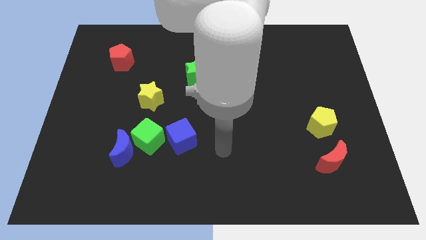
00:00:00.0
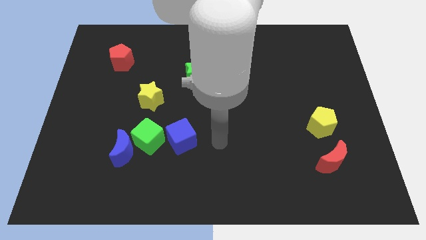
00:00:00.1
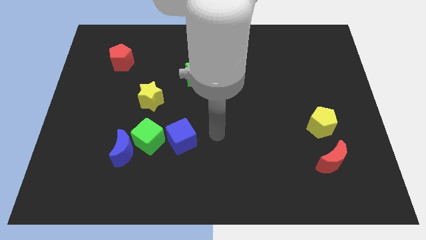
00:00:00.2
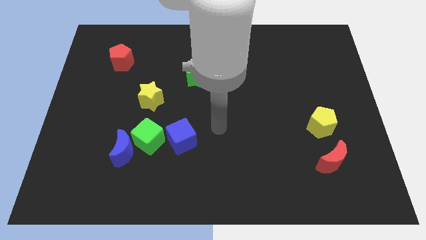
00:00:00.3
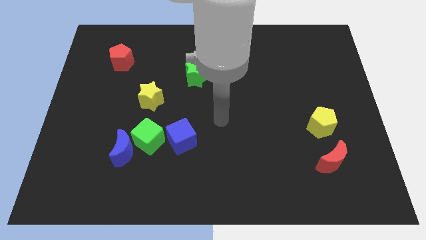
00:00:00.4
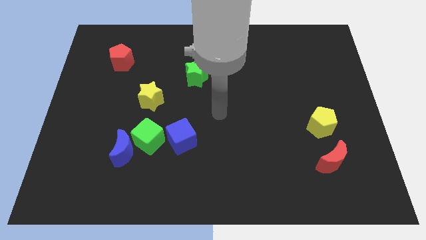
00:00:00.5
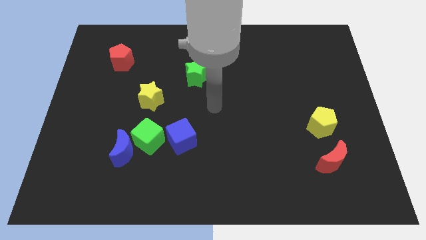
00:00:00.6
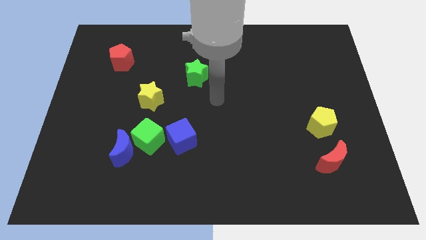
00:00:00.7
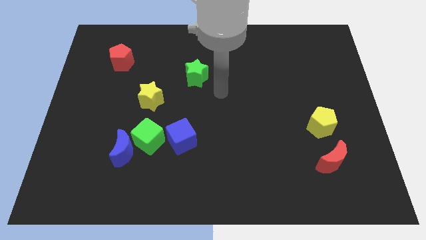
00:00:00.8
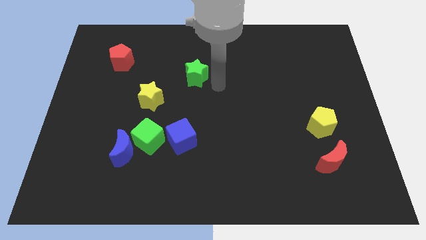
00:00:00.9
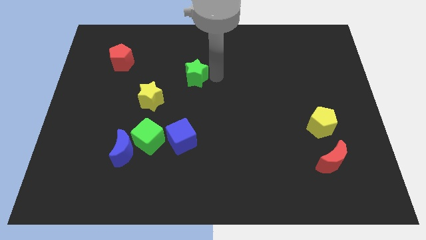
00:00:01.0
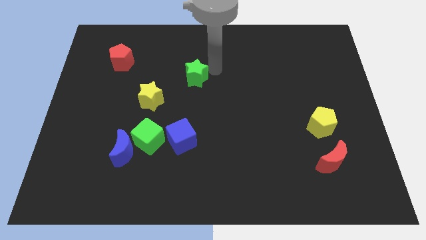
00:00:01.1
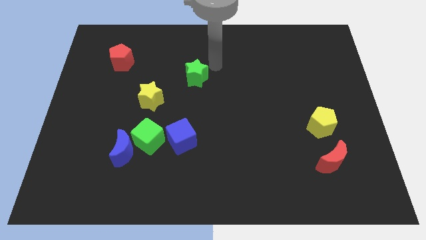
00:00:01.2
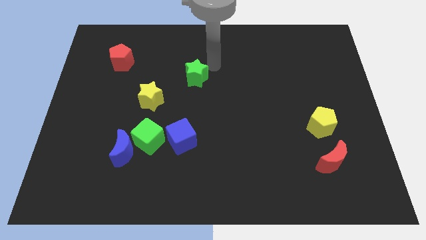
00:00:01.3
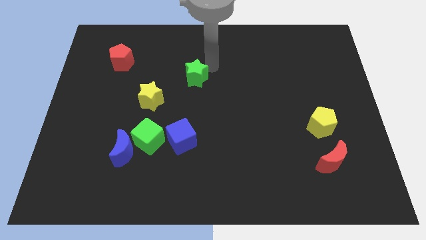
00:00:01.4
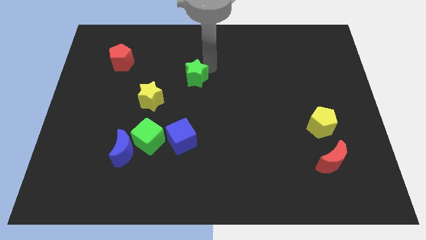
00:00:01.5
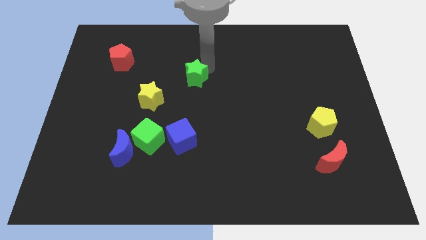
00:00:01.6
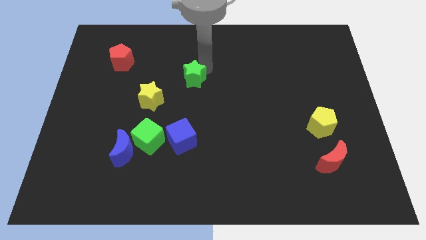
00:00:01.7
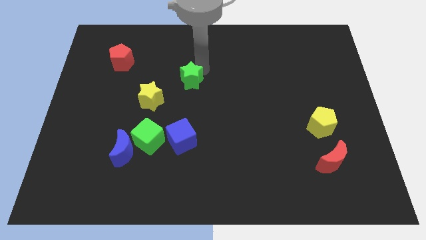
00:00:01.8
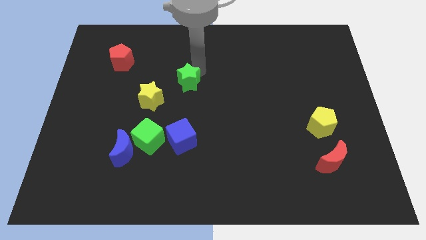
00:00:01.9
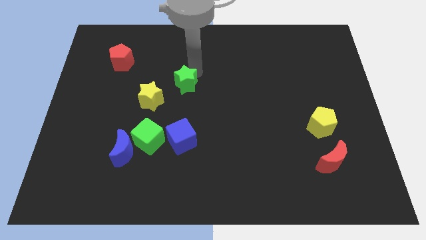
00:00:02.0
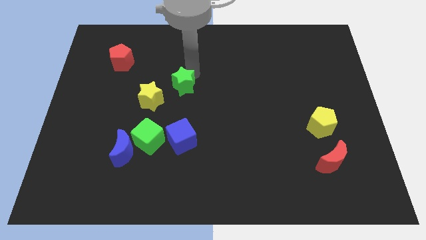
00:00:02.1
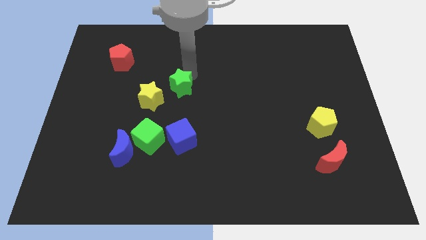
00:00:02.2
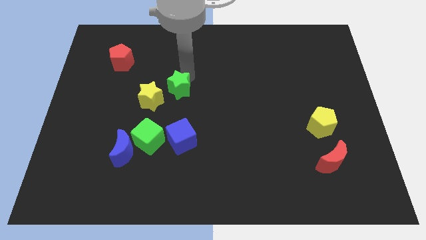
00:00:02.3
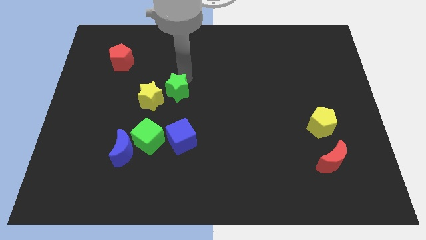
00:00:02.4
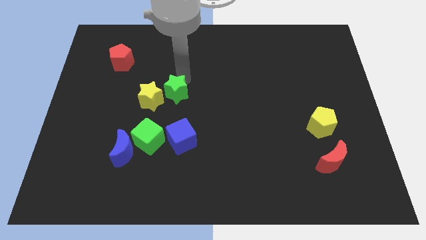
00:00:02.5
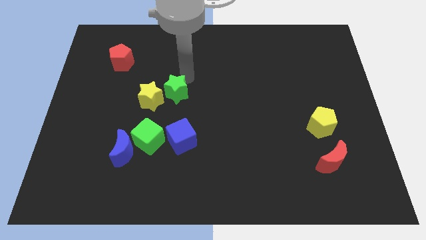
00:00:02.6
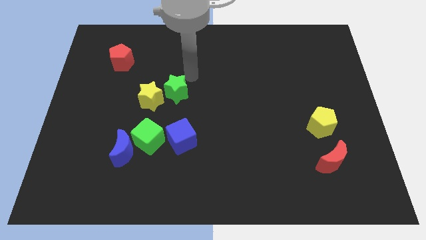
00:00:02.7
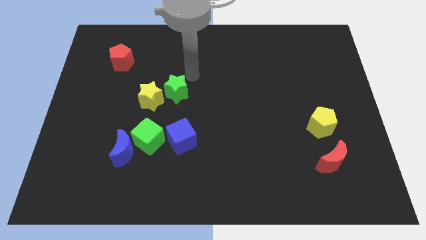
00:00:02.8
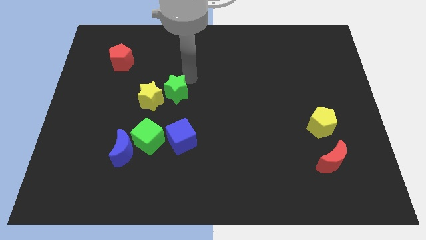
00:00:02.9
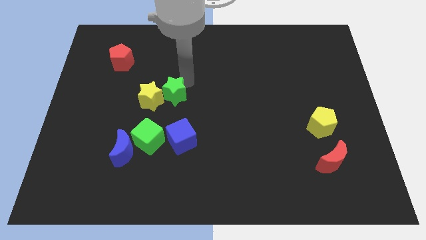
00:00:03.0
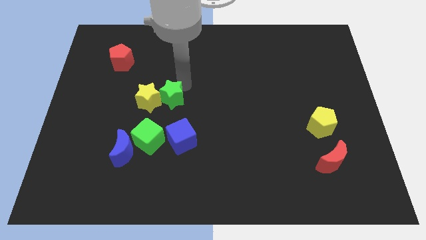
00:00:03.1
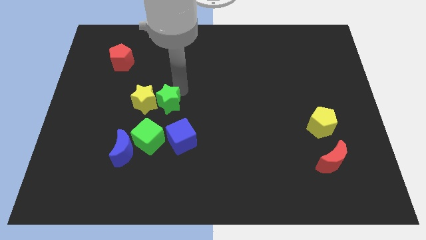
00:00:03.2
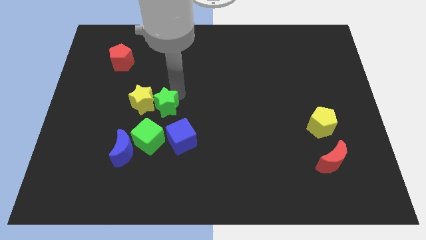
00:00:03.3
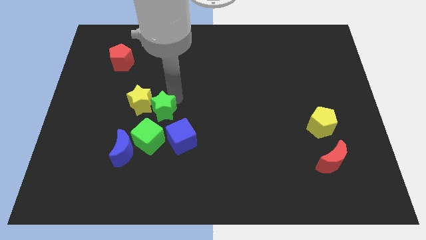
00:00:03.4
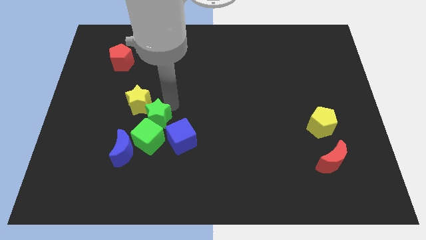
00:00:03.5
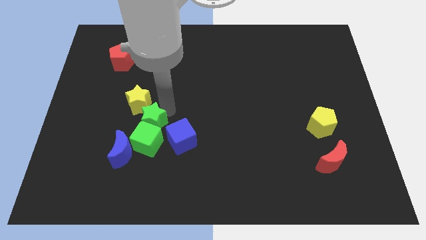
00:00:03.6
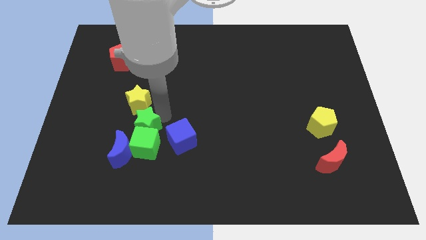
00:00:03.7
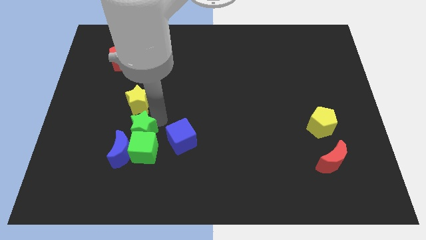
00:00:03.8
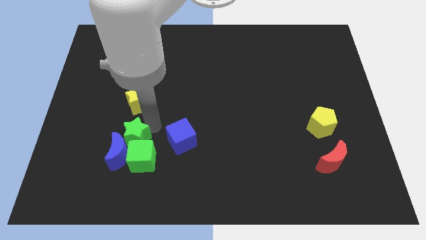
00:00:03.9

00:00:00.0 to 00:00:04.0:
slide the green star down and left diagonally

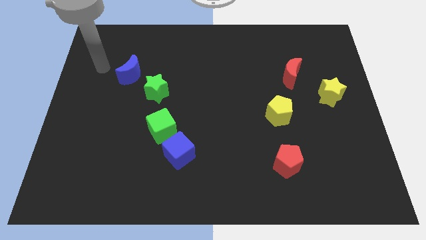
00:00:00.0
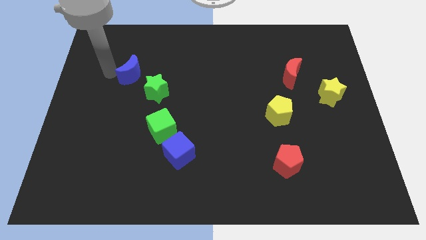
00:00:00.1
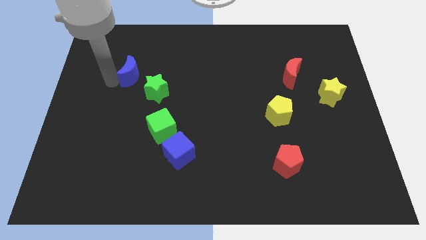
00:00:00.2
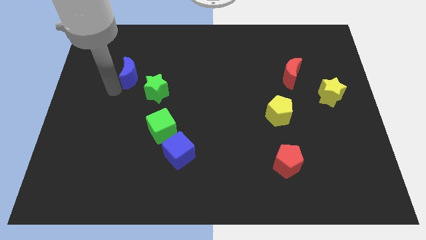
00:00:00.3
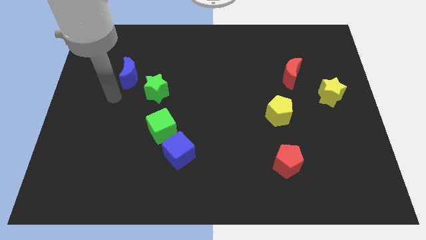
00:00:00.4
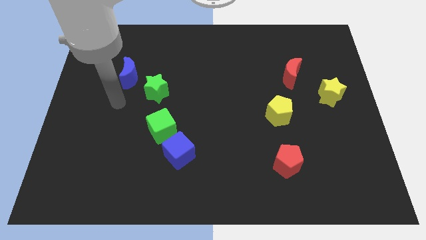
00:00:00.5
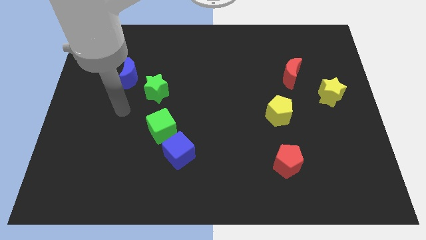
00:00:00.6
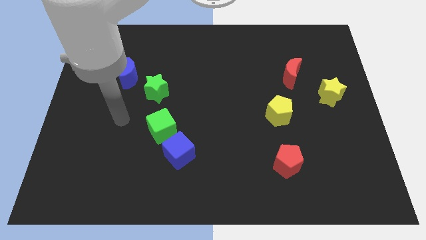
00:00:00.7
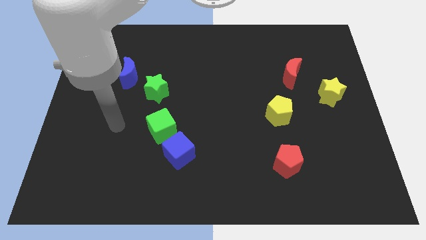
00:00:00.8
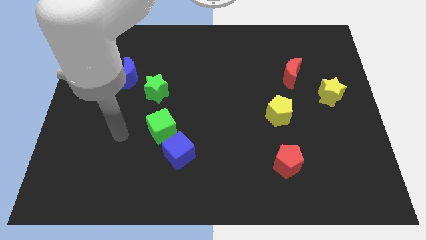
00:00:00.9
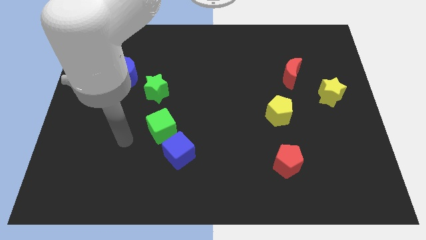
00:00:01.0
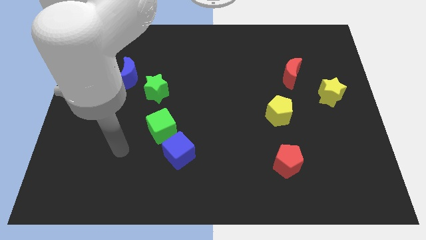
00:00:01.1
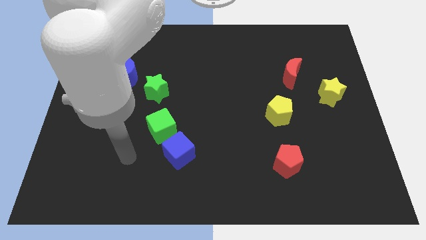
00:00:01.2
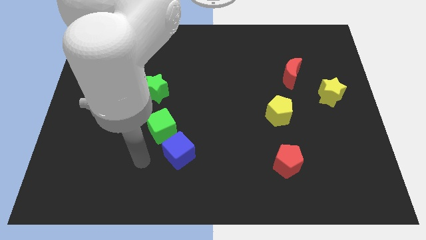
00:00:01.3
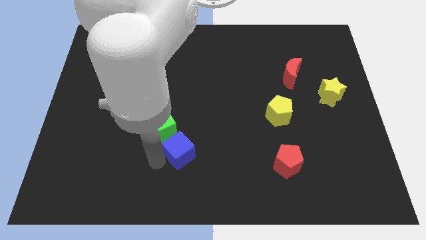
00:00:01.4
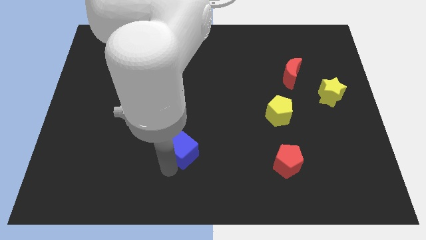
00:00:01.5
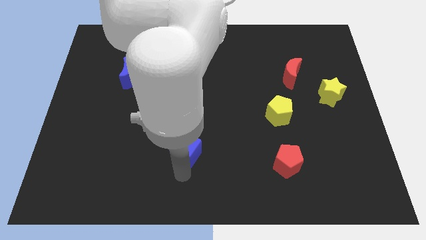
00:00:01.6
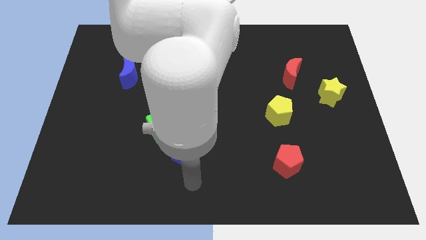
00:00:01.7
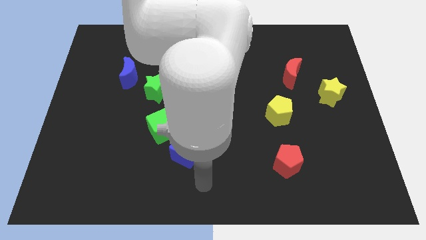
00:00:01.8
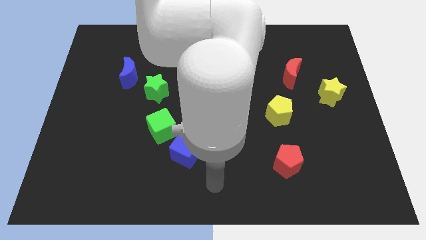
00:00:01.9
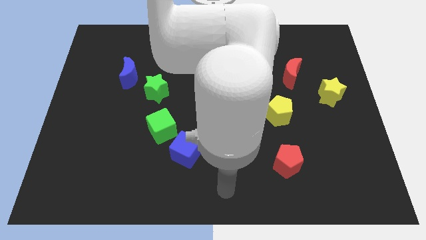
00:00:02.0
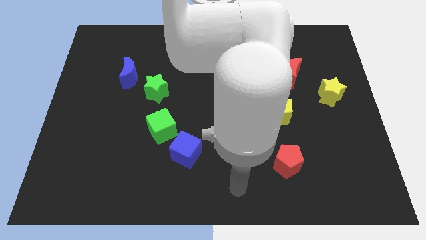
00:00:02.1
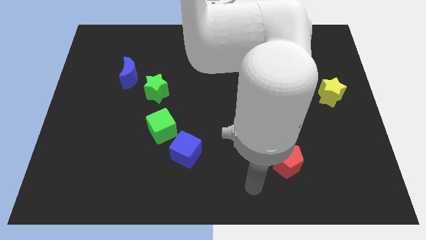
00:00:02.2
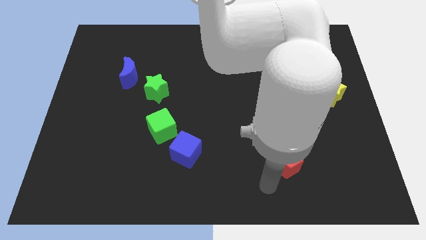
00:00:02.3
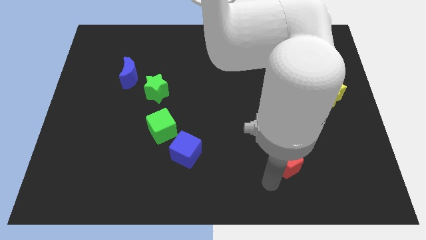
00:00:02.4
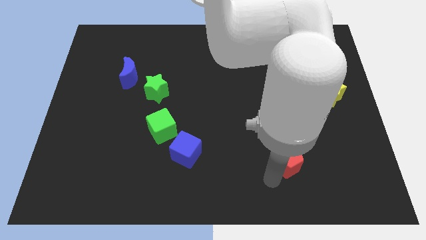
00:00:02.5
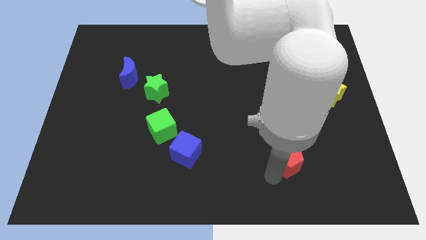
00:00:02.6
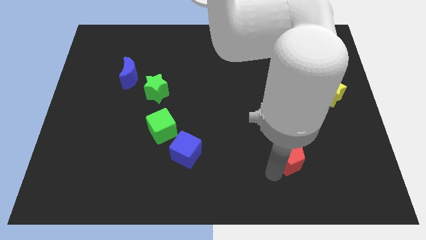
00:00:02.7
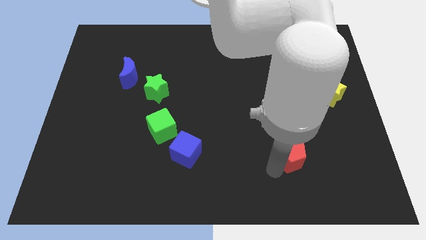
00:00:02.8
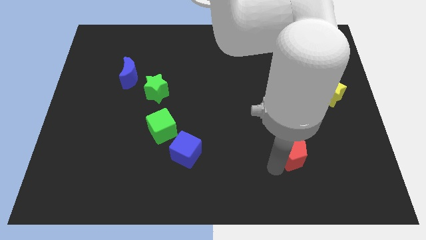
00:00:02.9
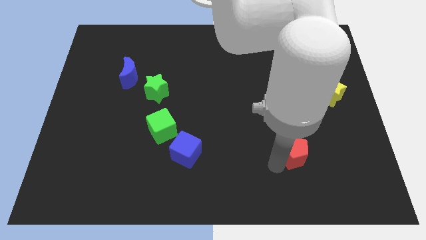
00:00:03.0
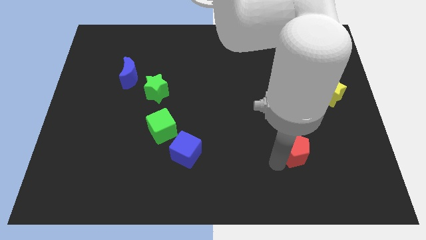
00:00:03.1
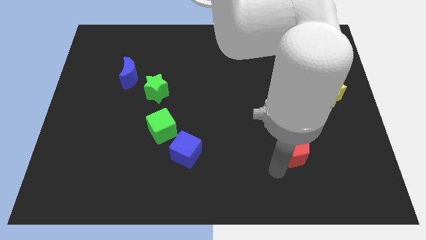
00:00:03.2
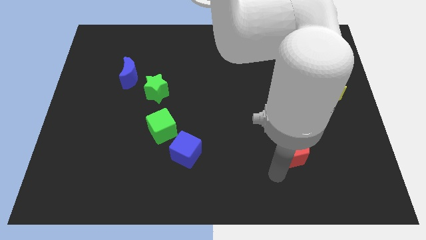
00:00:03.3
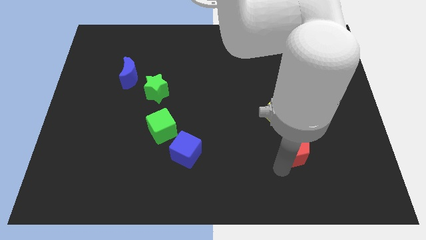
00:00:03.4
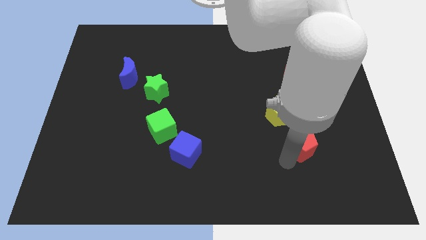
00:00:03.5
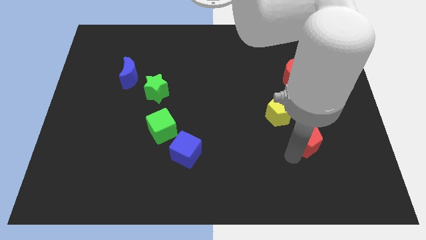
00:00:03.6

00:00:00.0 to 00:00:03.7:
push the red pentagon upwards and to the right slightly

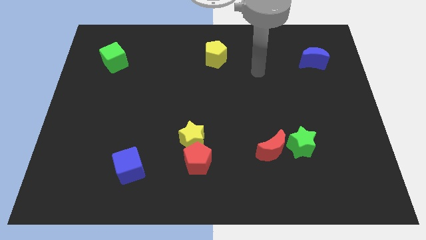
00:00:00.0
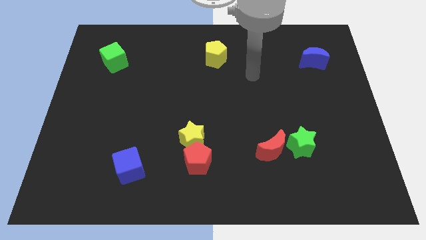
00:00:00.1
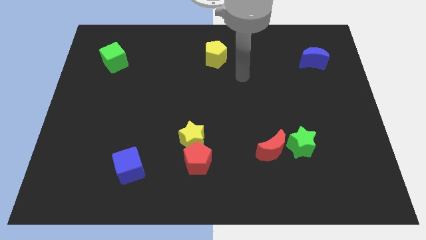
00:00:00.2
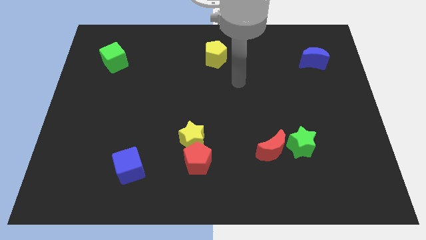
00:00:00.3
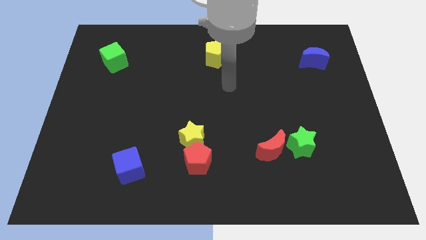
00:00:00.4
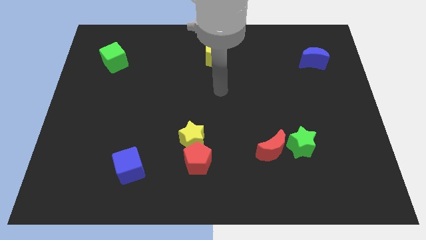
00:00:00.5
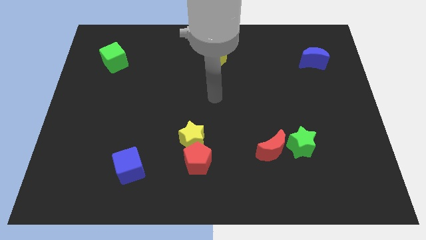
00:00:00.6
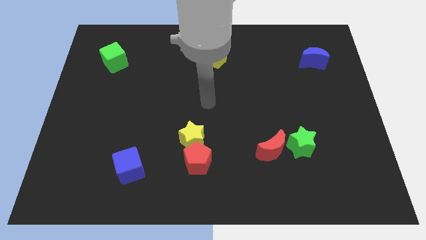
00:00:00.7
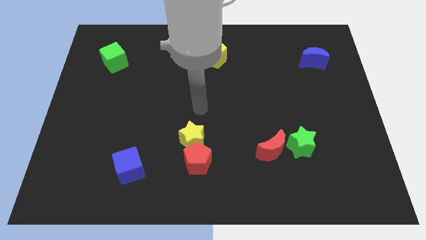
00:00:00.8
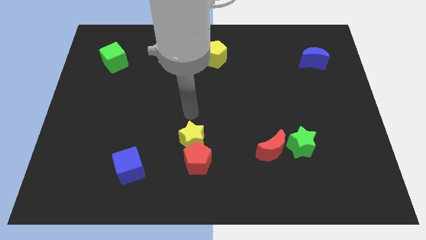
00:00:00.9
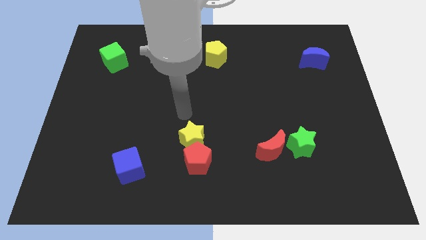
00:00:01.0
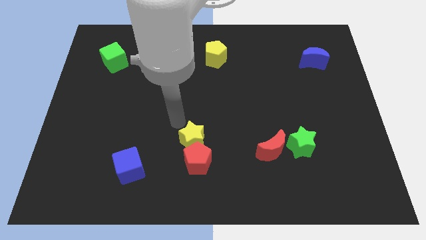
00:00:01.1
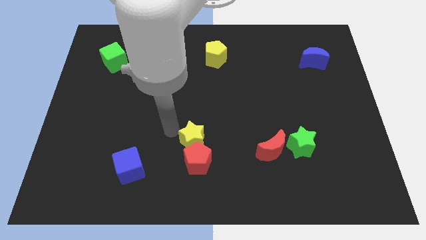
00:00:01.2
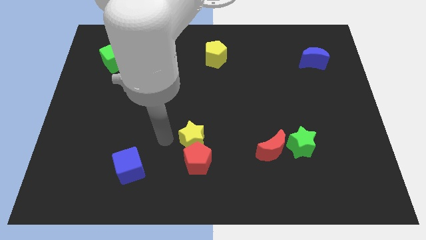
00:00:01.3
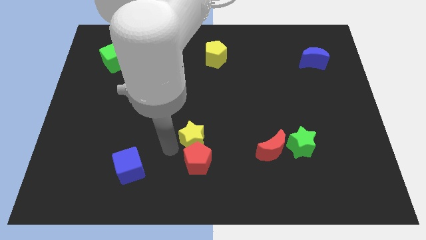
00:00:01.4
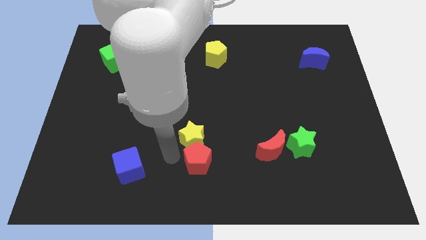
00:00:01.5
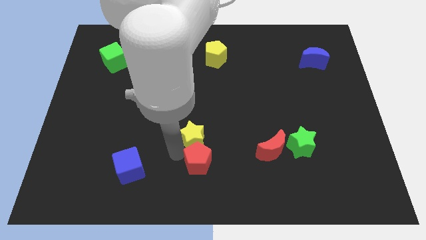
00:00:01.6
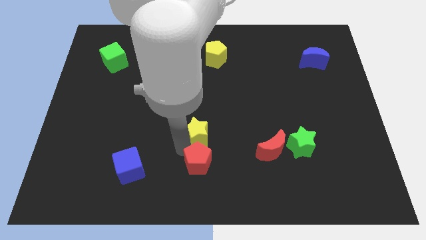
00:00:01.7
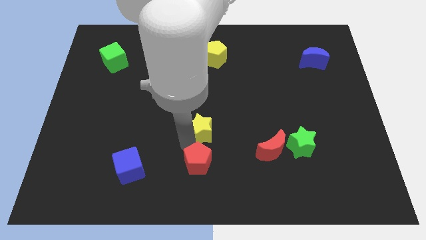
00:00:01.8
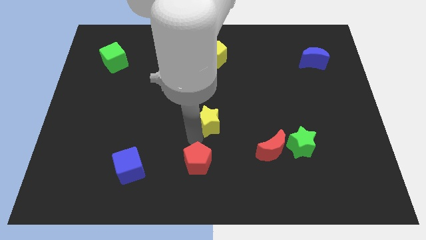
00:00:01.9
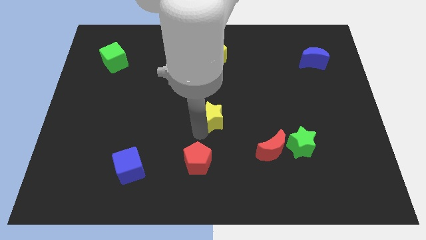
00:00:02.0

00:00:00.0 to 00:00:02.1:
slightly slide the yellow star upwards and then right
